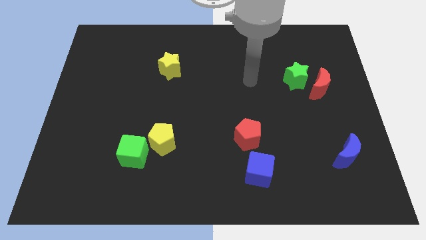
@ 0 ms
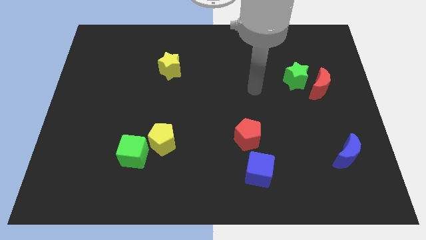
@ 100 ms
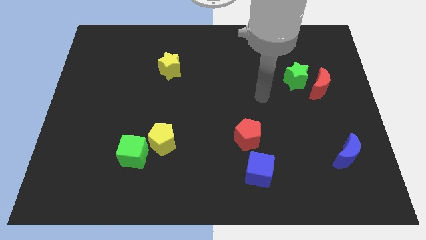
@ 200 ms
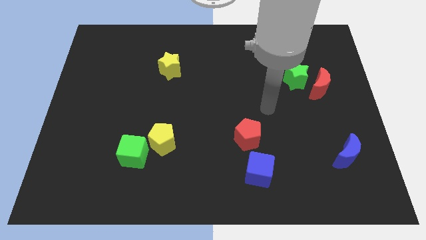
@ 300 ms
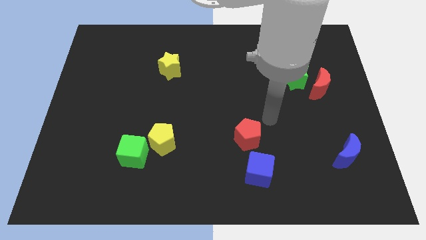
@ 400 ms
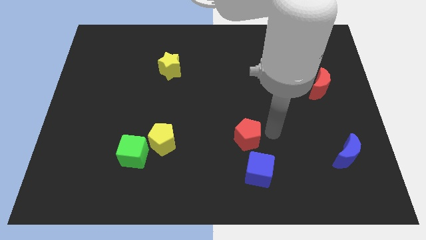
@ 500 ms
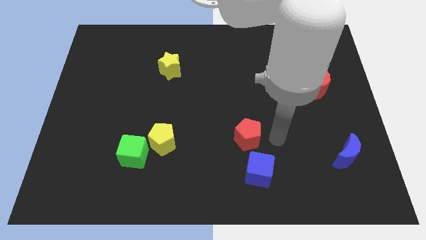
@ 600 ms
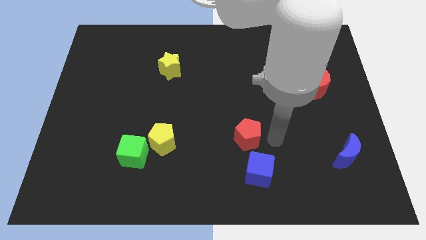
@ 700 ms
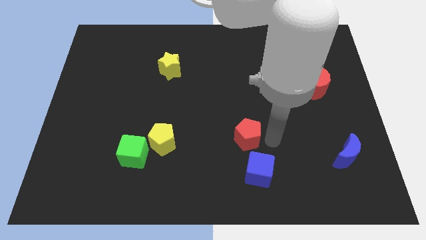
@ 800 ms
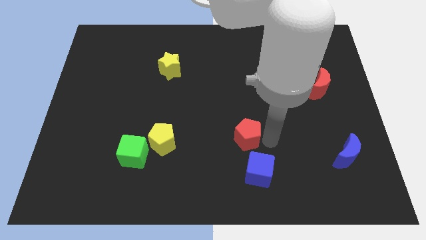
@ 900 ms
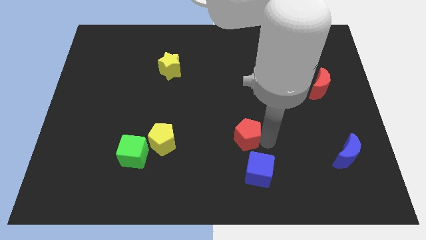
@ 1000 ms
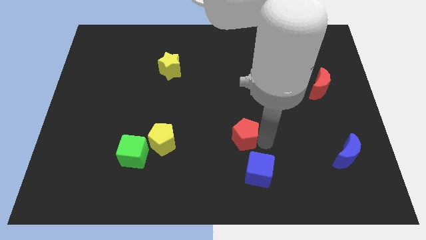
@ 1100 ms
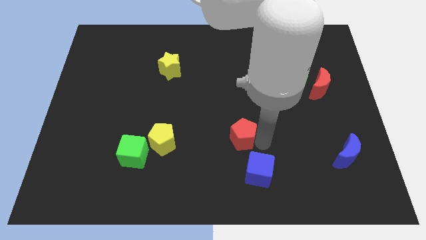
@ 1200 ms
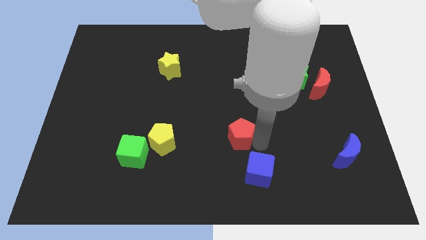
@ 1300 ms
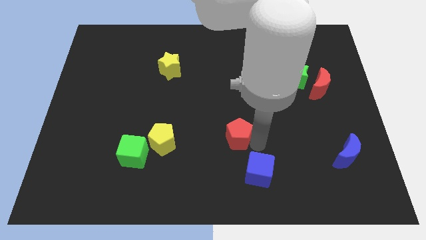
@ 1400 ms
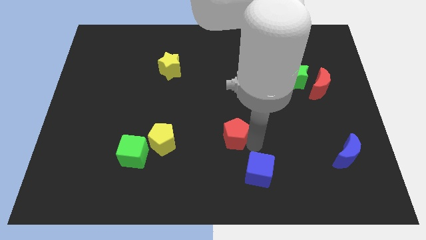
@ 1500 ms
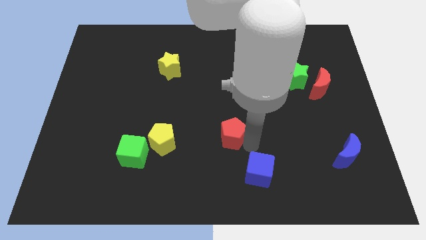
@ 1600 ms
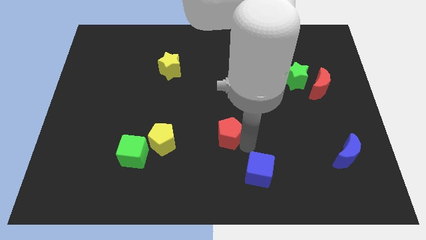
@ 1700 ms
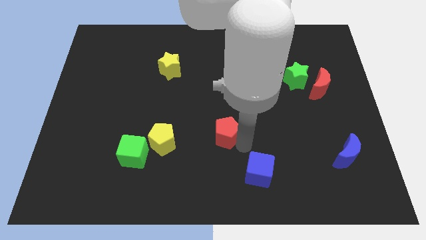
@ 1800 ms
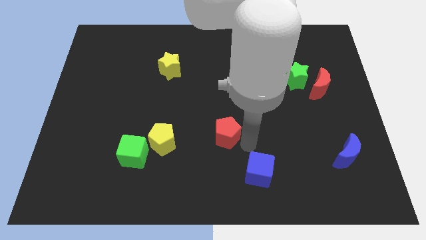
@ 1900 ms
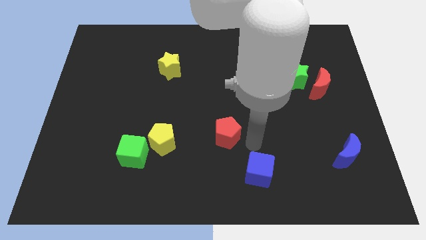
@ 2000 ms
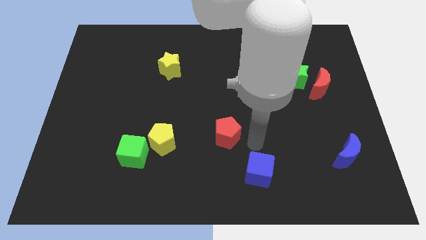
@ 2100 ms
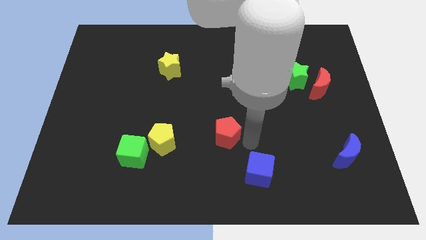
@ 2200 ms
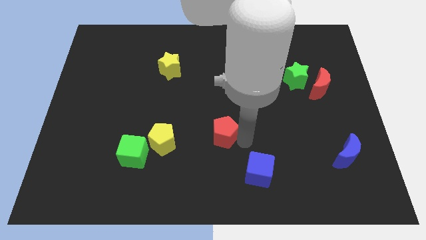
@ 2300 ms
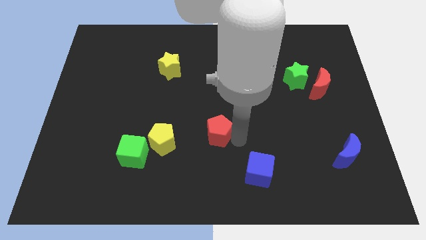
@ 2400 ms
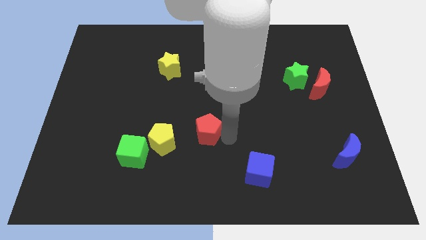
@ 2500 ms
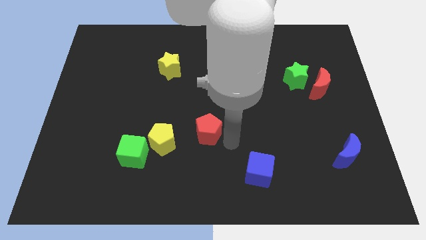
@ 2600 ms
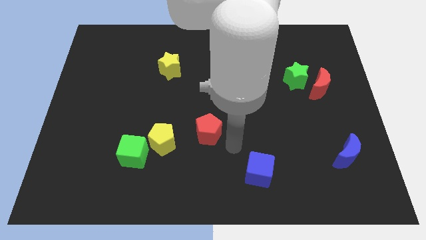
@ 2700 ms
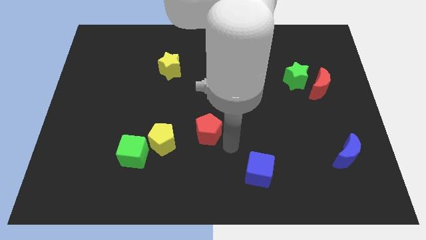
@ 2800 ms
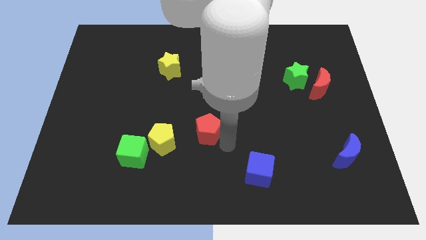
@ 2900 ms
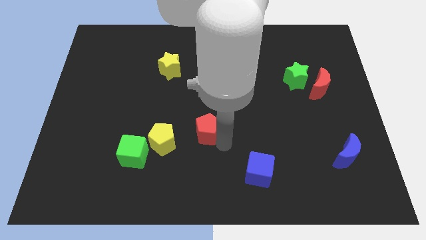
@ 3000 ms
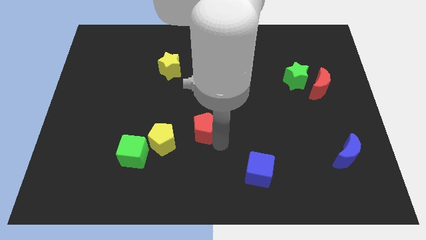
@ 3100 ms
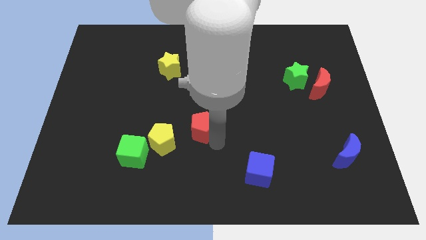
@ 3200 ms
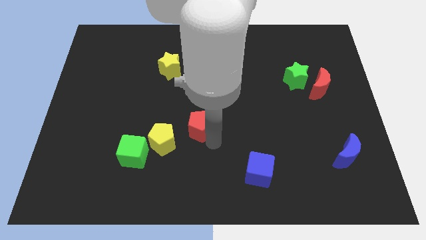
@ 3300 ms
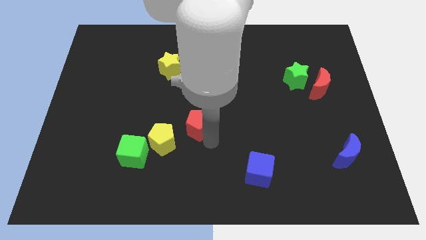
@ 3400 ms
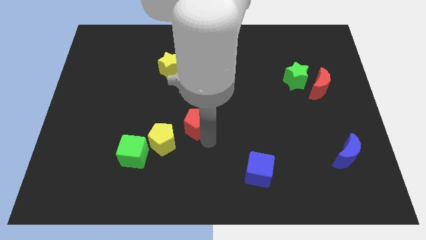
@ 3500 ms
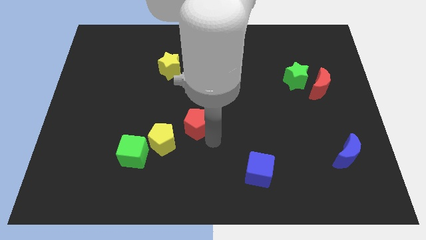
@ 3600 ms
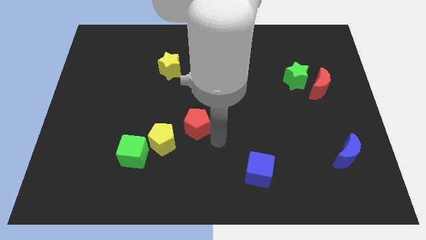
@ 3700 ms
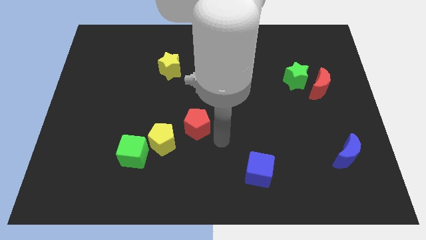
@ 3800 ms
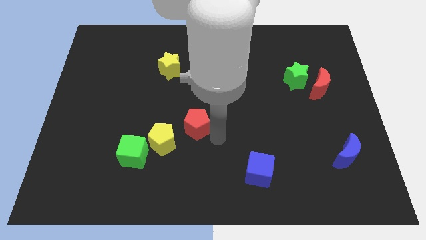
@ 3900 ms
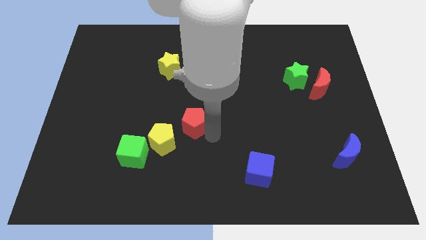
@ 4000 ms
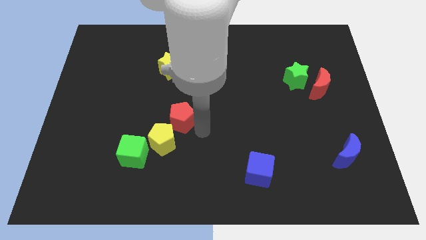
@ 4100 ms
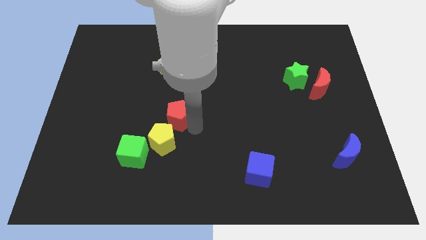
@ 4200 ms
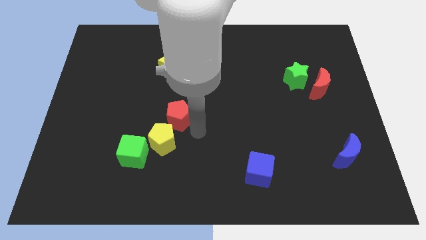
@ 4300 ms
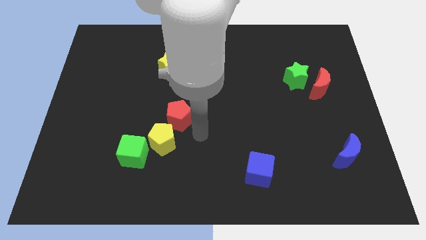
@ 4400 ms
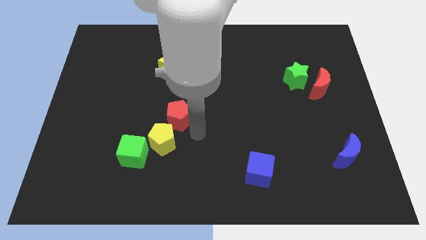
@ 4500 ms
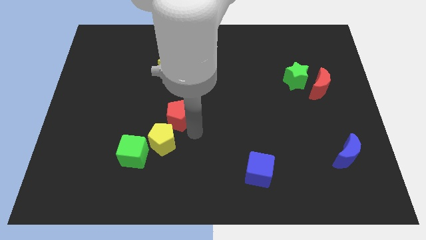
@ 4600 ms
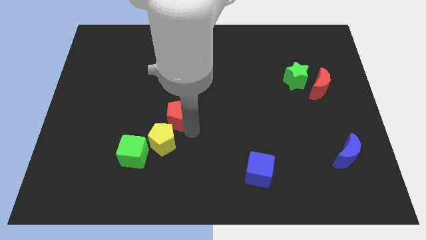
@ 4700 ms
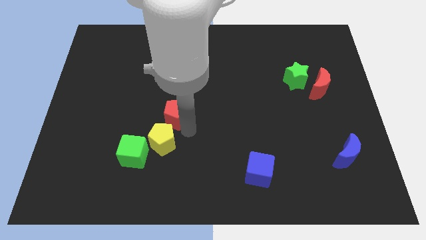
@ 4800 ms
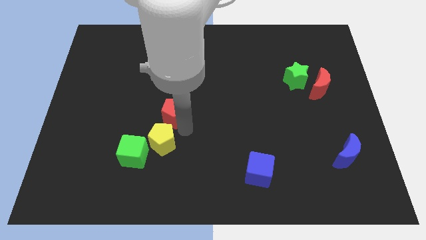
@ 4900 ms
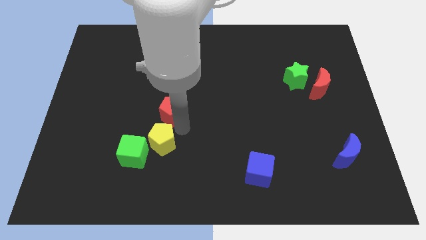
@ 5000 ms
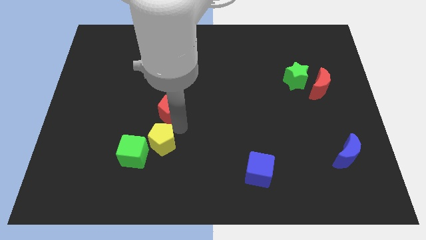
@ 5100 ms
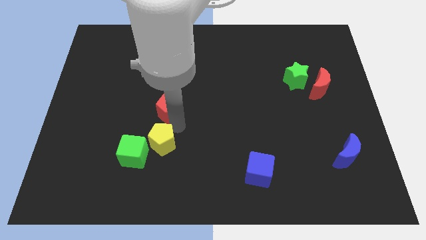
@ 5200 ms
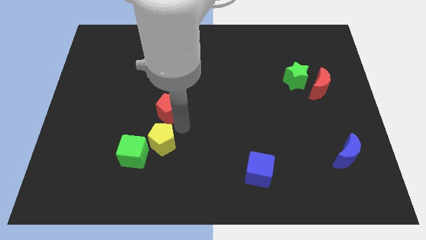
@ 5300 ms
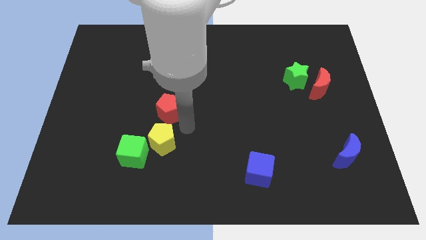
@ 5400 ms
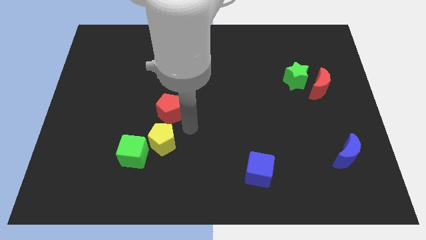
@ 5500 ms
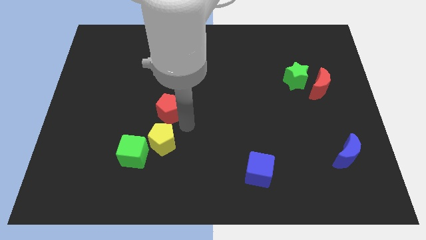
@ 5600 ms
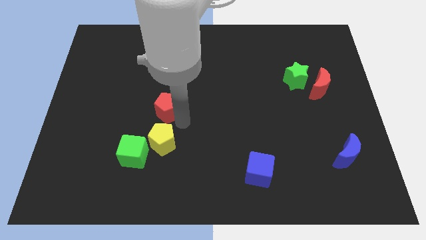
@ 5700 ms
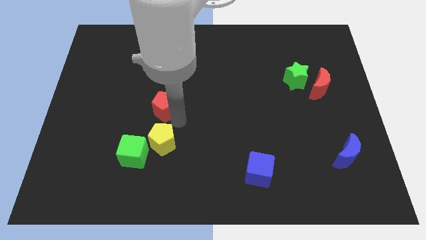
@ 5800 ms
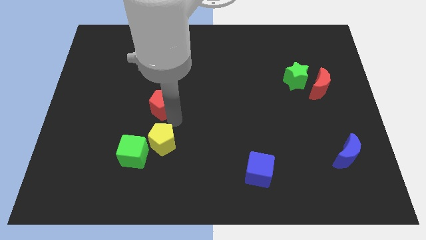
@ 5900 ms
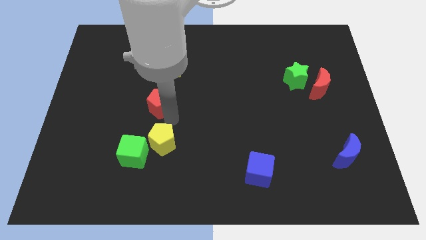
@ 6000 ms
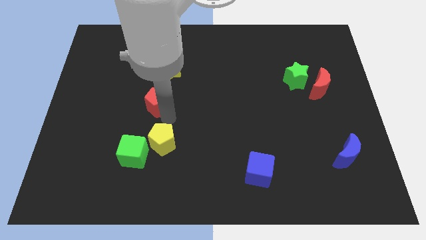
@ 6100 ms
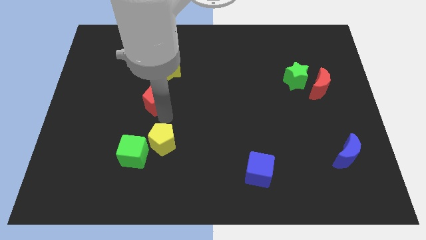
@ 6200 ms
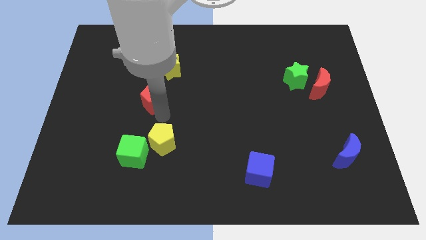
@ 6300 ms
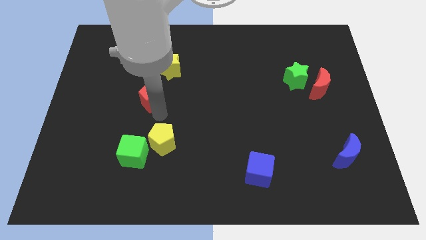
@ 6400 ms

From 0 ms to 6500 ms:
slide the red pentagon diagonally upwards and left

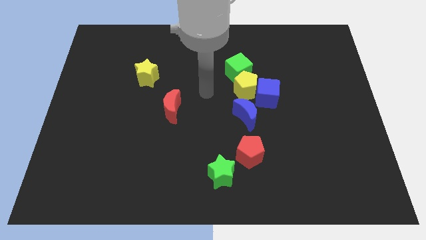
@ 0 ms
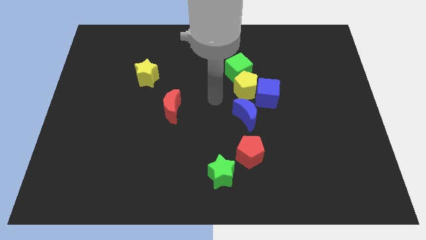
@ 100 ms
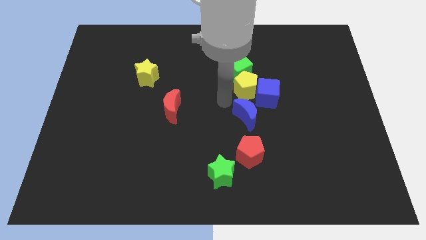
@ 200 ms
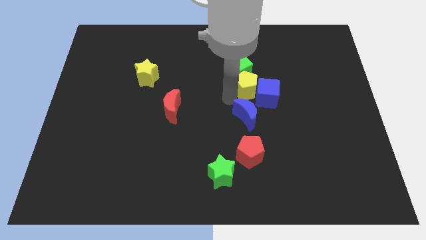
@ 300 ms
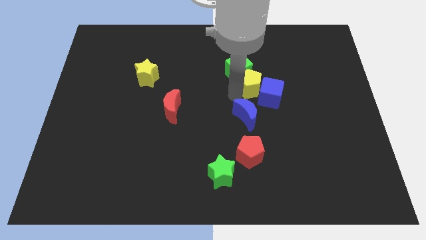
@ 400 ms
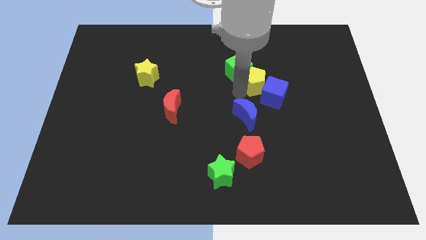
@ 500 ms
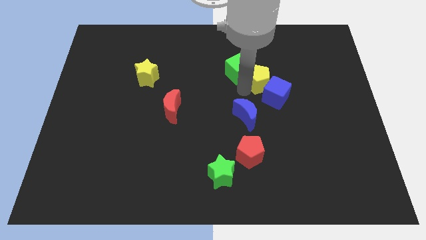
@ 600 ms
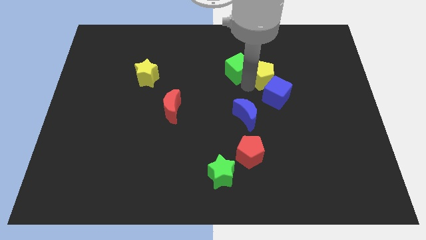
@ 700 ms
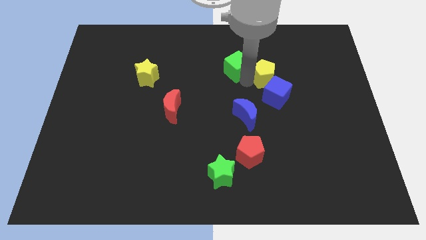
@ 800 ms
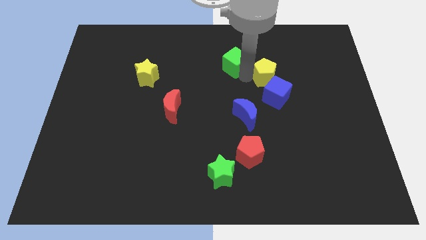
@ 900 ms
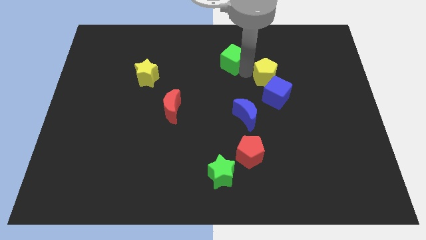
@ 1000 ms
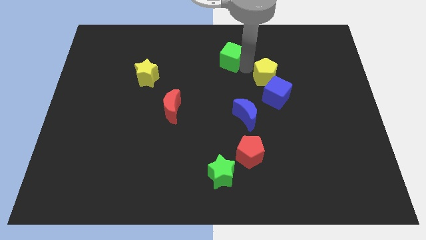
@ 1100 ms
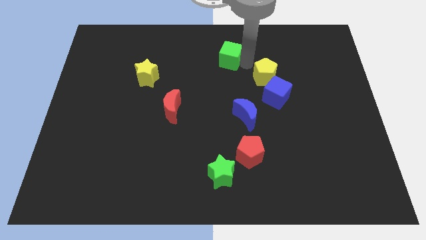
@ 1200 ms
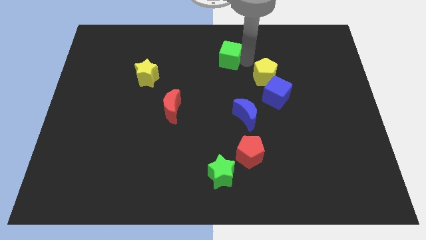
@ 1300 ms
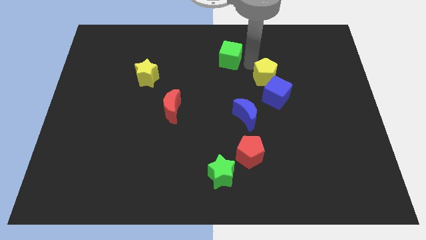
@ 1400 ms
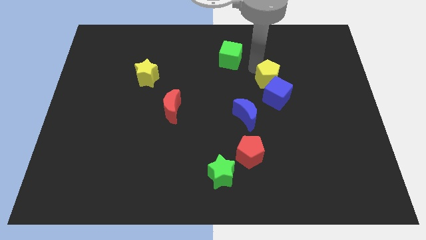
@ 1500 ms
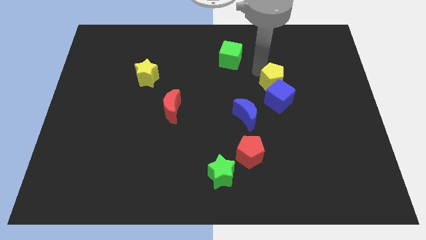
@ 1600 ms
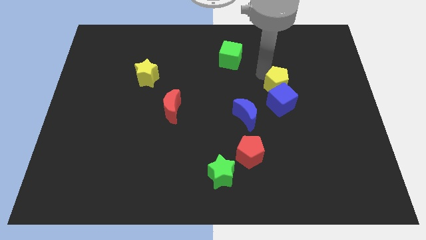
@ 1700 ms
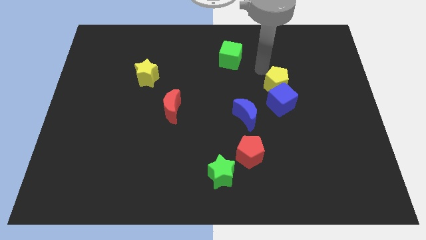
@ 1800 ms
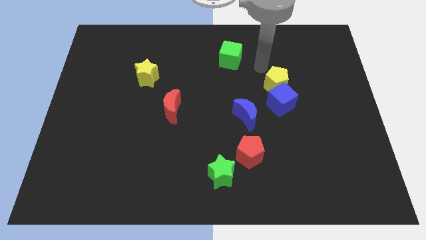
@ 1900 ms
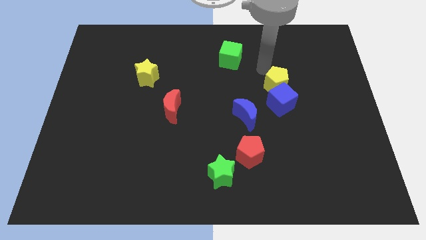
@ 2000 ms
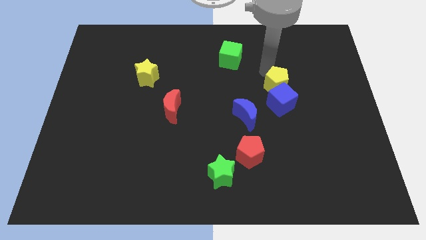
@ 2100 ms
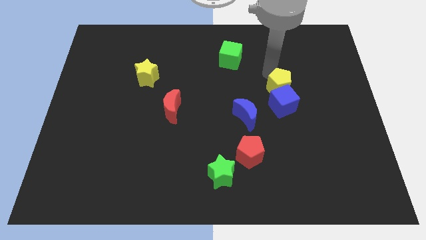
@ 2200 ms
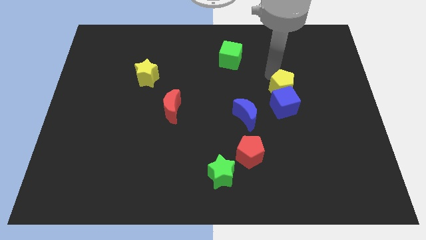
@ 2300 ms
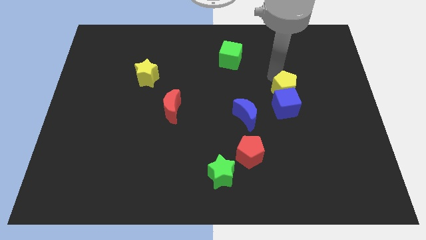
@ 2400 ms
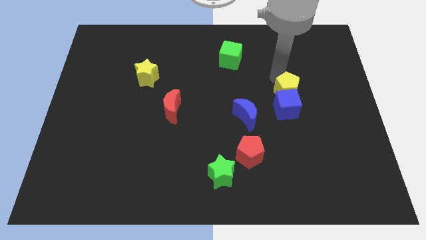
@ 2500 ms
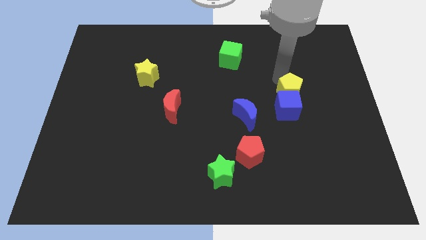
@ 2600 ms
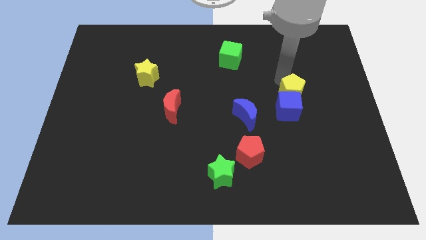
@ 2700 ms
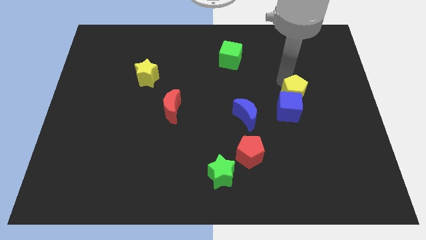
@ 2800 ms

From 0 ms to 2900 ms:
slightly push the yellow pentagon downwards and to the right diagonally
